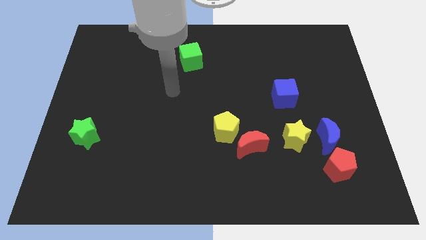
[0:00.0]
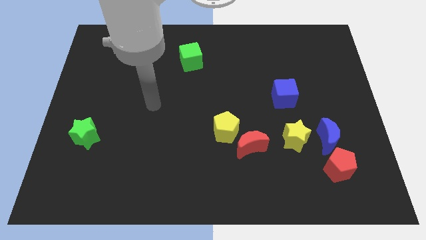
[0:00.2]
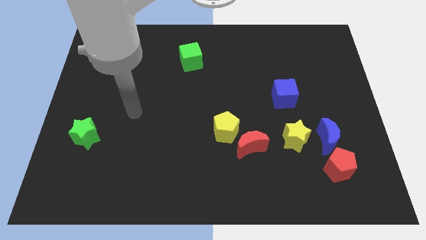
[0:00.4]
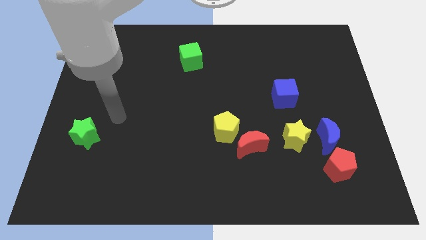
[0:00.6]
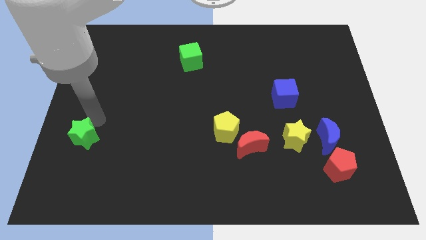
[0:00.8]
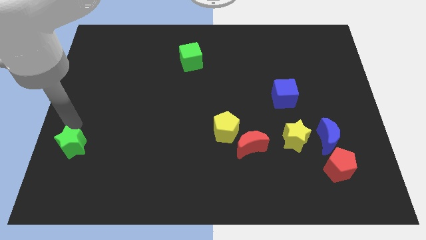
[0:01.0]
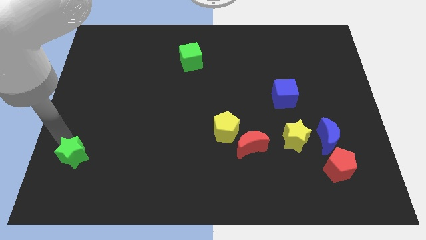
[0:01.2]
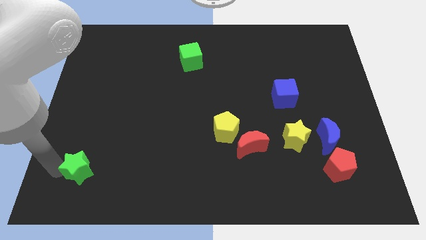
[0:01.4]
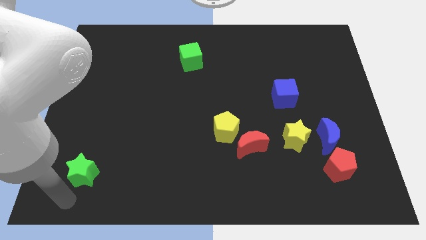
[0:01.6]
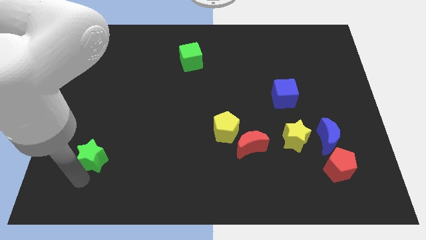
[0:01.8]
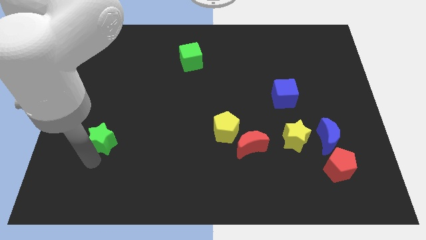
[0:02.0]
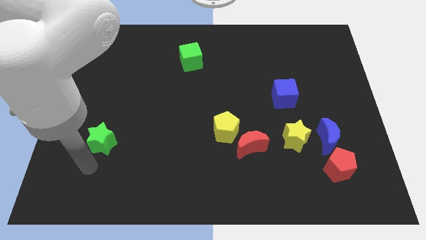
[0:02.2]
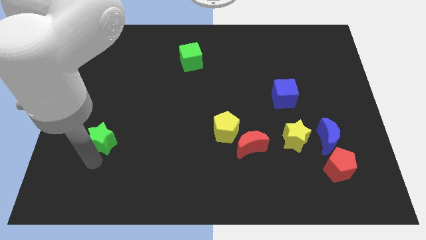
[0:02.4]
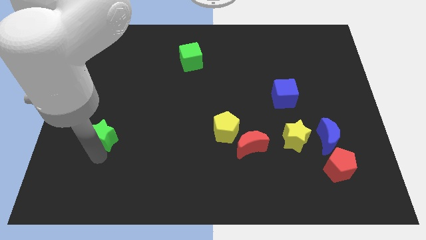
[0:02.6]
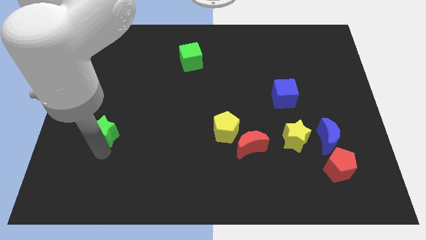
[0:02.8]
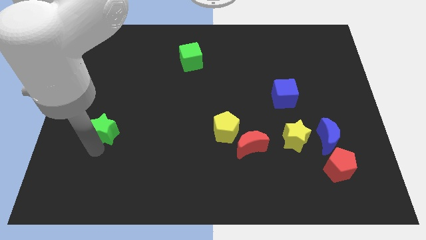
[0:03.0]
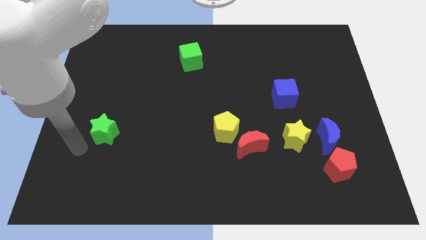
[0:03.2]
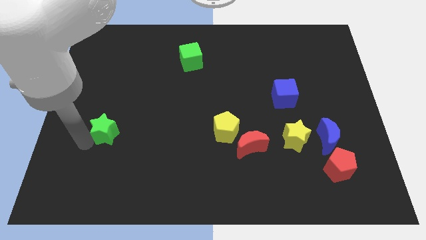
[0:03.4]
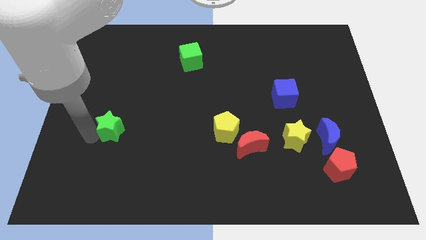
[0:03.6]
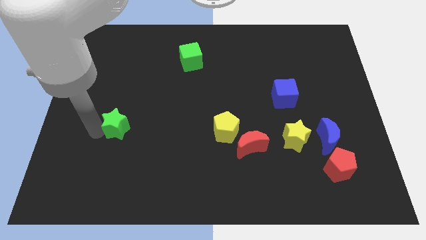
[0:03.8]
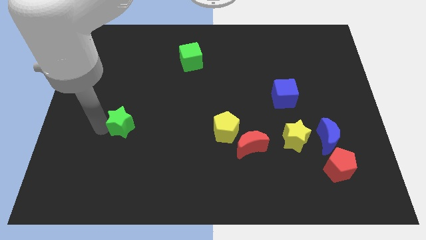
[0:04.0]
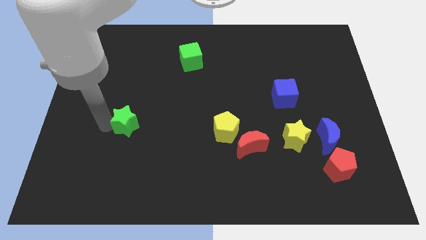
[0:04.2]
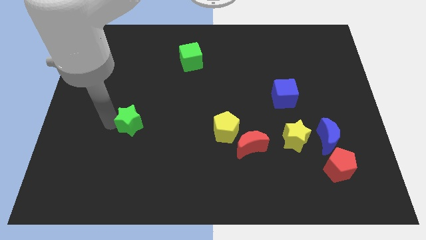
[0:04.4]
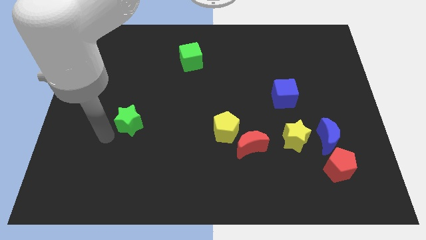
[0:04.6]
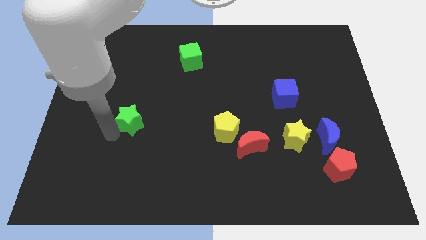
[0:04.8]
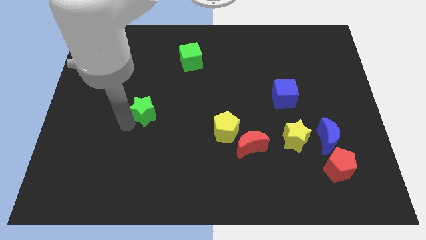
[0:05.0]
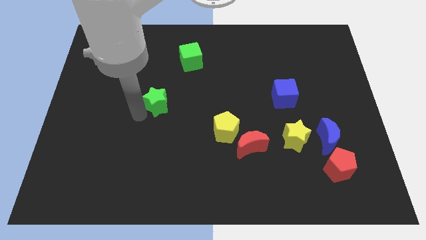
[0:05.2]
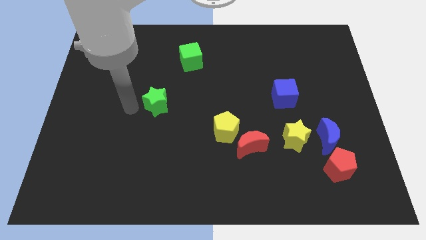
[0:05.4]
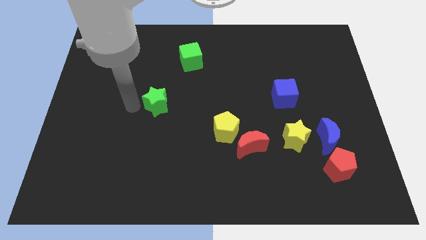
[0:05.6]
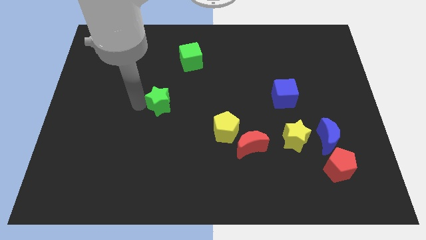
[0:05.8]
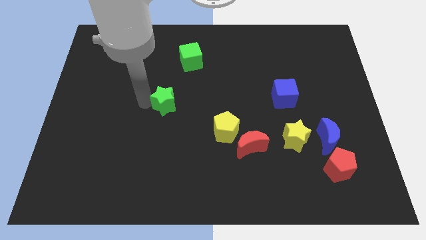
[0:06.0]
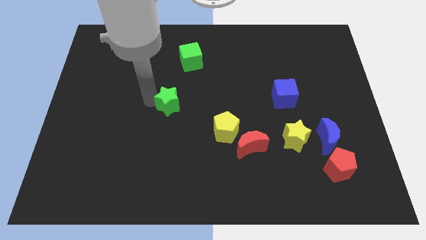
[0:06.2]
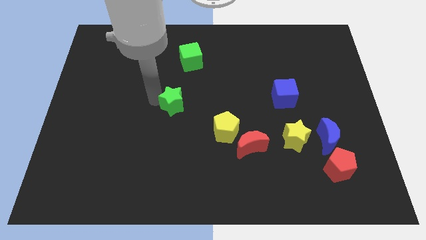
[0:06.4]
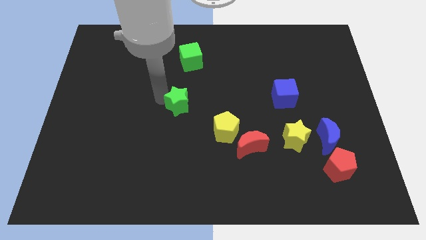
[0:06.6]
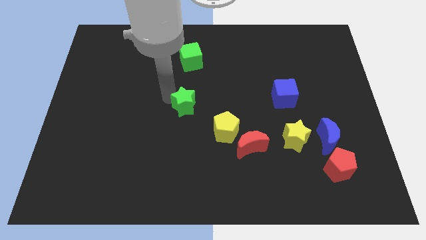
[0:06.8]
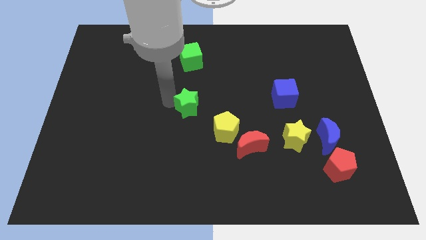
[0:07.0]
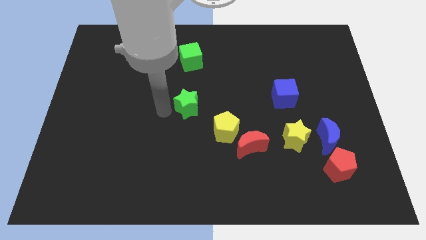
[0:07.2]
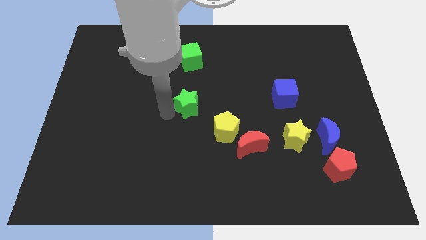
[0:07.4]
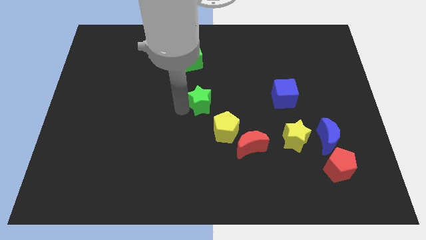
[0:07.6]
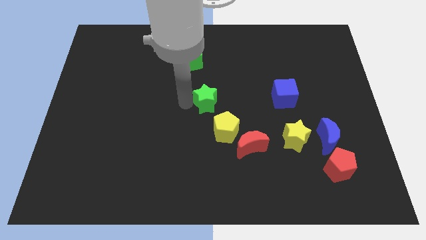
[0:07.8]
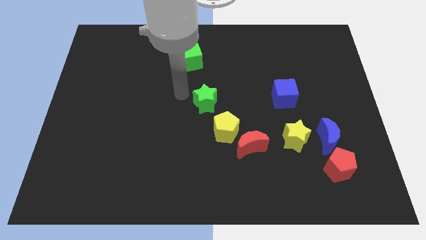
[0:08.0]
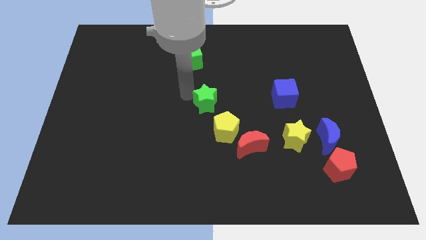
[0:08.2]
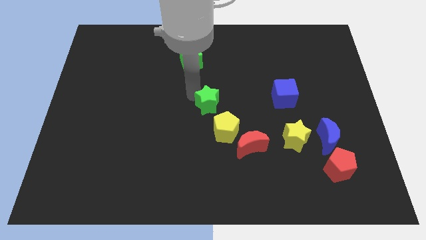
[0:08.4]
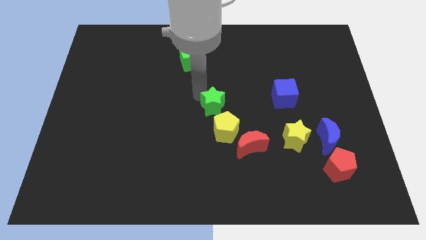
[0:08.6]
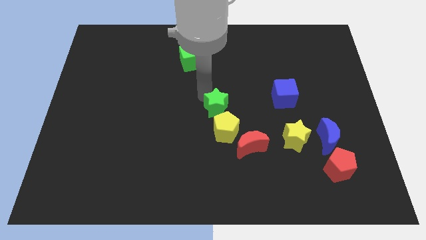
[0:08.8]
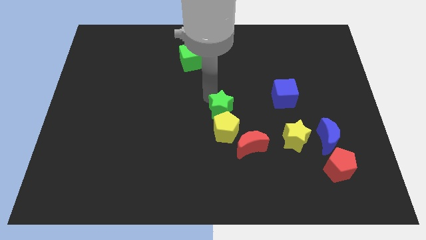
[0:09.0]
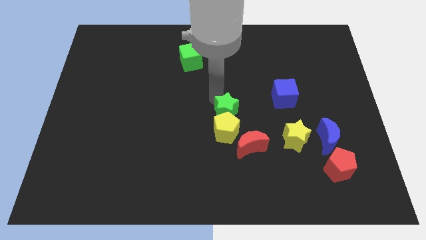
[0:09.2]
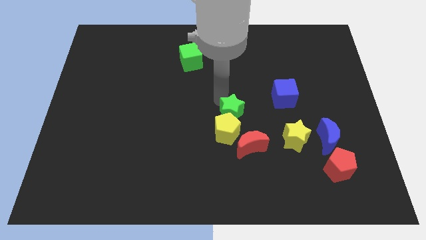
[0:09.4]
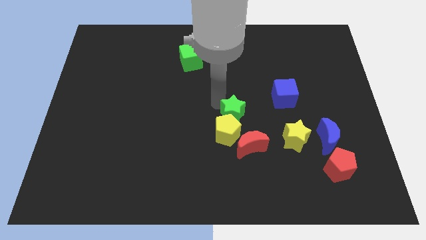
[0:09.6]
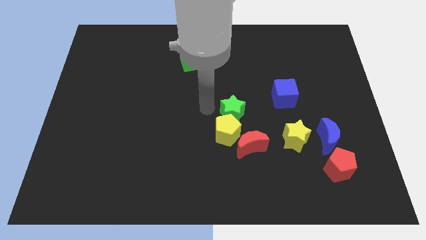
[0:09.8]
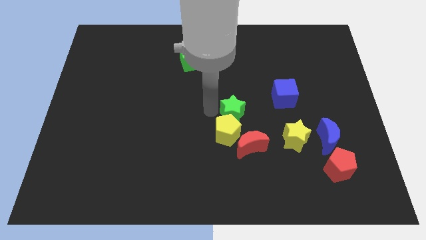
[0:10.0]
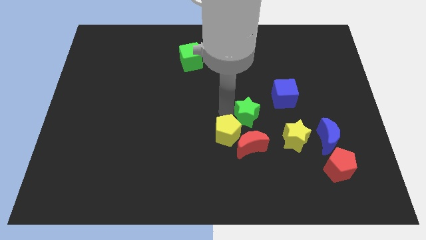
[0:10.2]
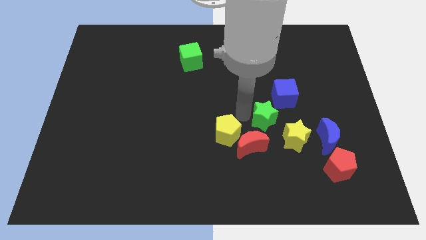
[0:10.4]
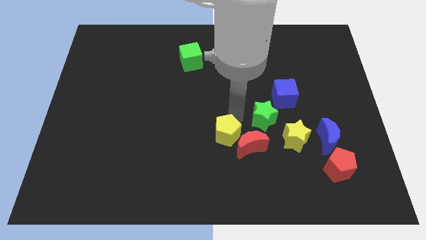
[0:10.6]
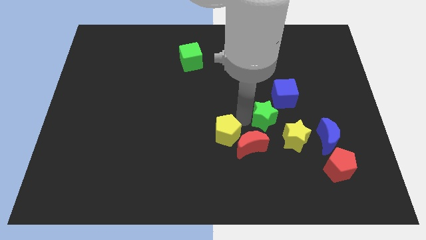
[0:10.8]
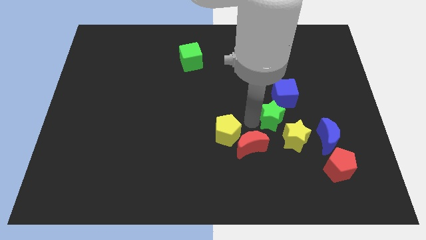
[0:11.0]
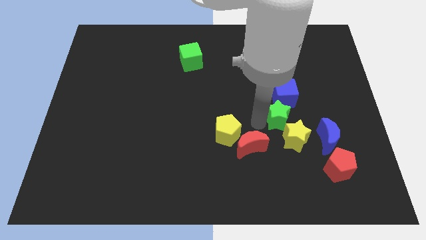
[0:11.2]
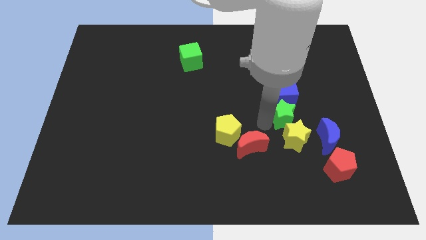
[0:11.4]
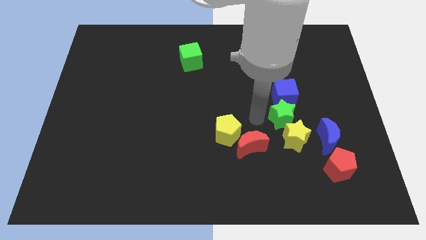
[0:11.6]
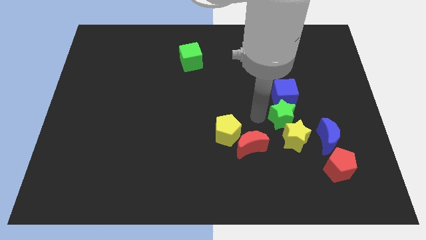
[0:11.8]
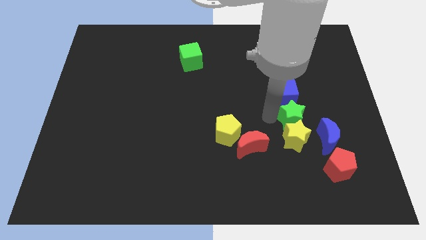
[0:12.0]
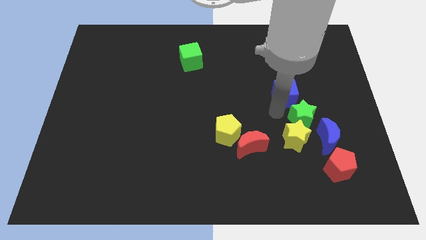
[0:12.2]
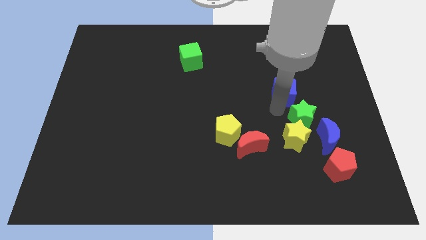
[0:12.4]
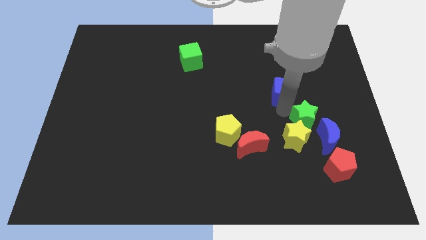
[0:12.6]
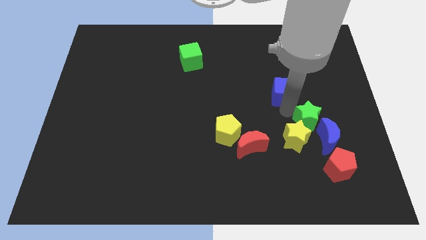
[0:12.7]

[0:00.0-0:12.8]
put the green star above the red pentagon
